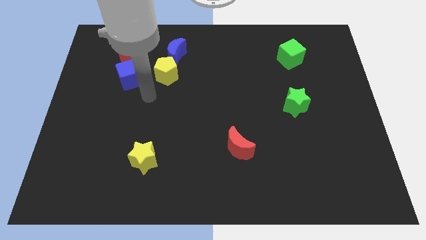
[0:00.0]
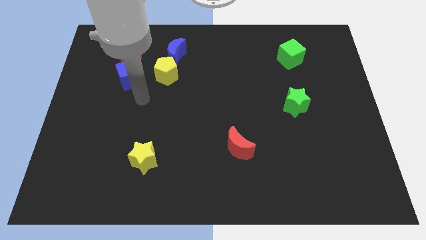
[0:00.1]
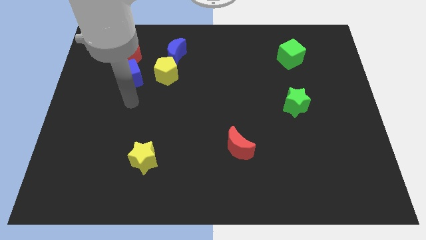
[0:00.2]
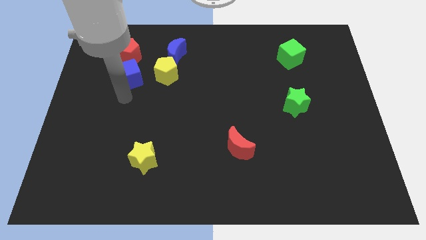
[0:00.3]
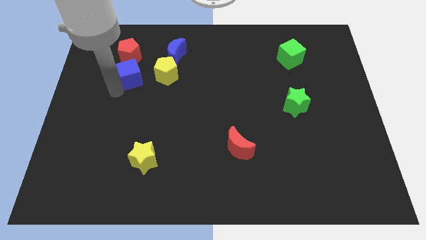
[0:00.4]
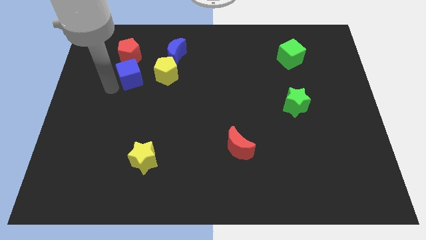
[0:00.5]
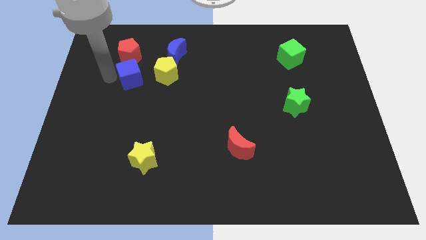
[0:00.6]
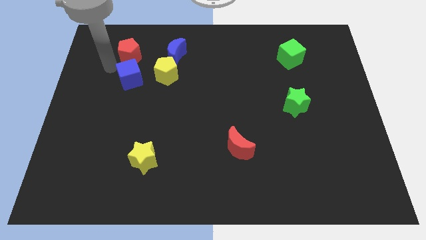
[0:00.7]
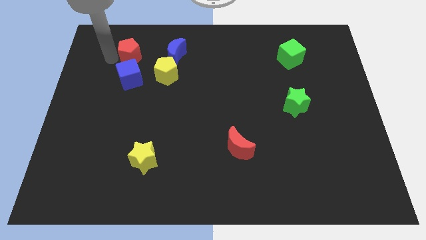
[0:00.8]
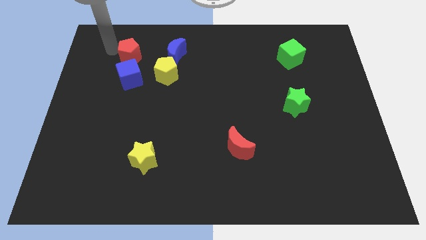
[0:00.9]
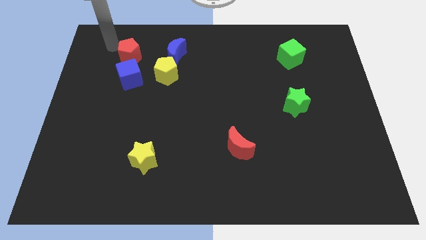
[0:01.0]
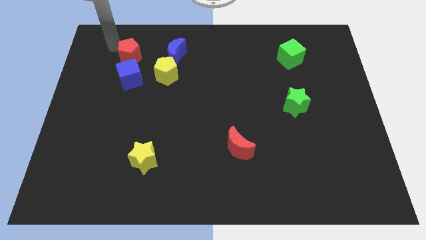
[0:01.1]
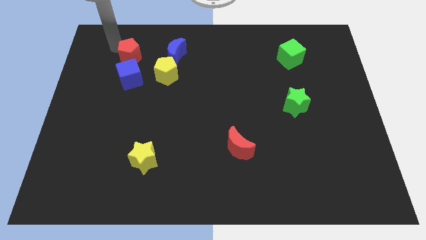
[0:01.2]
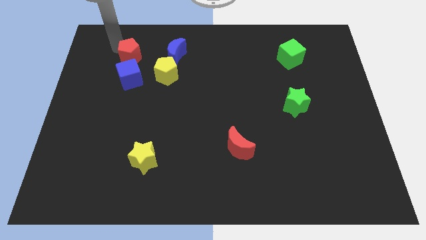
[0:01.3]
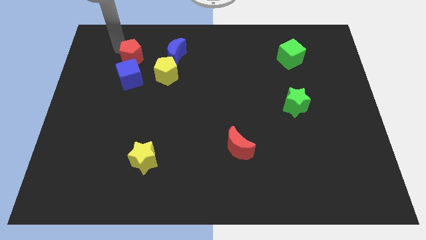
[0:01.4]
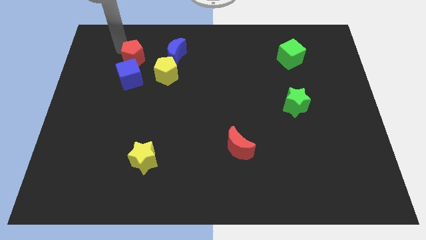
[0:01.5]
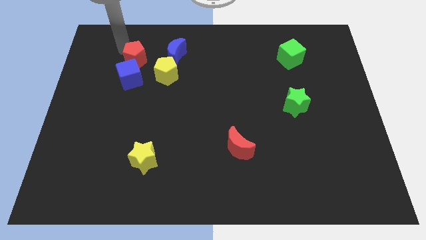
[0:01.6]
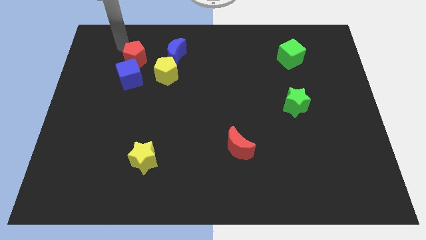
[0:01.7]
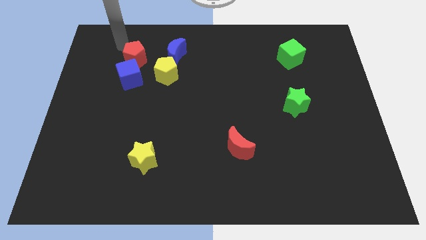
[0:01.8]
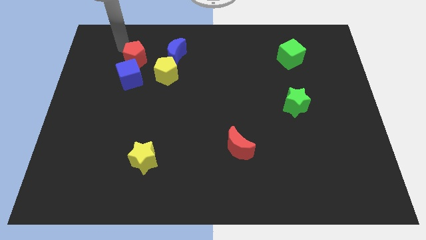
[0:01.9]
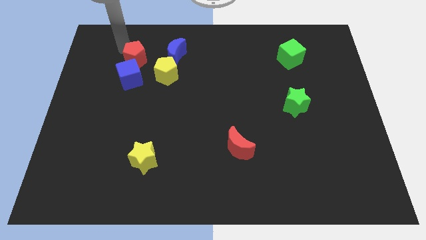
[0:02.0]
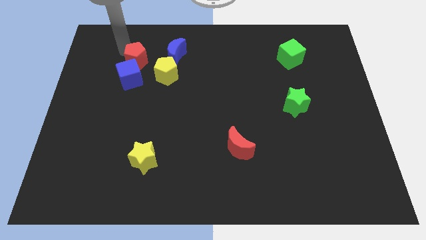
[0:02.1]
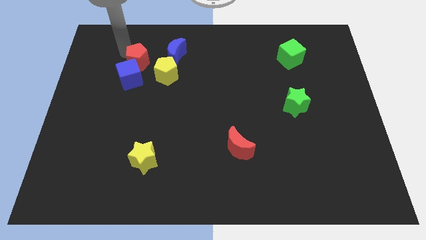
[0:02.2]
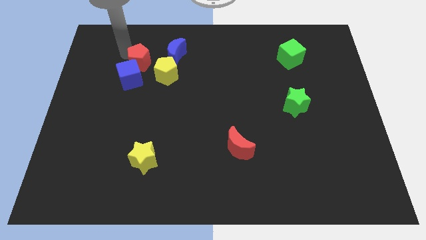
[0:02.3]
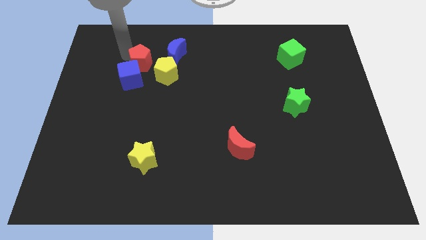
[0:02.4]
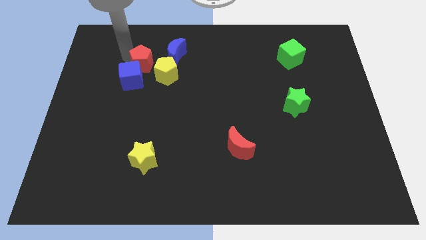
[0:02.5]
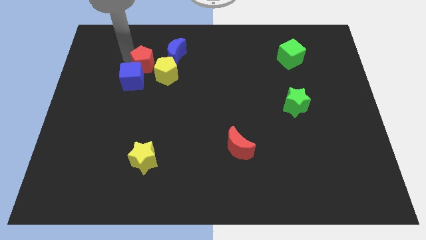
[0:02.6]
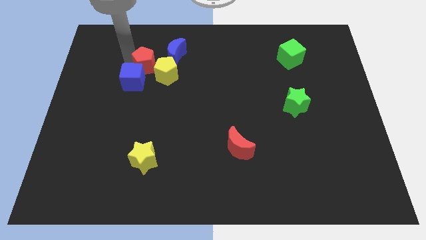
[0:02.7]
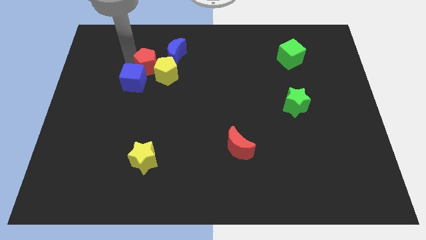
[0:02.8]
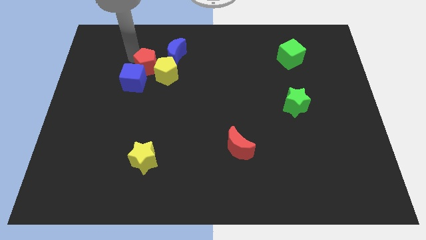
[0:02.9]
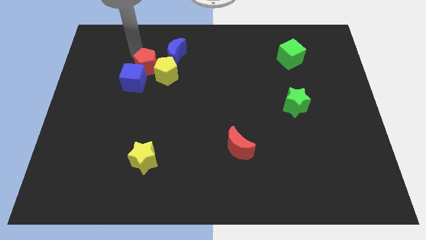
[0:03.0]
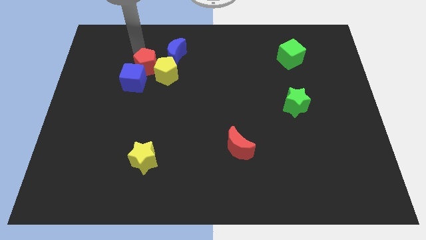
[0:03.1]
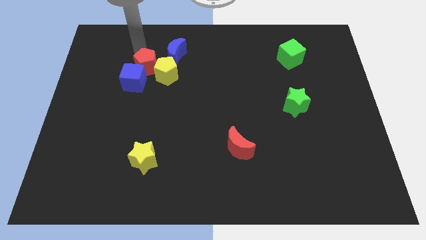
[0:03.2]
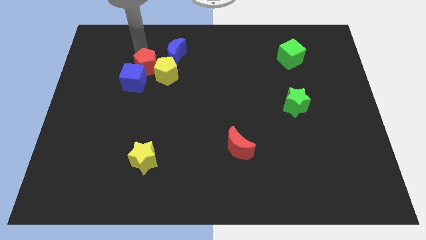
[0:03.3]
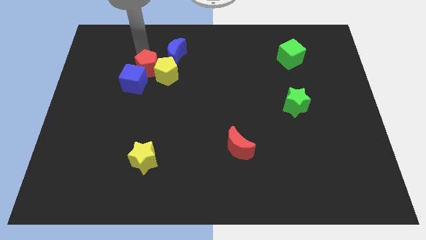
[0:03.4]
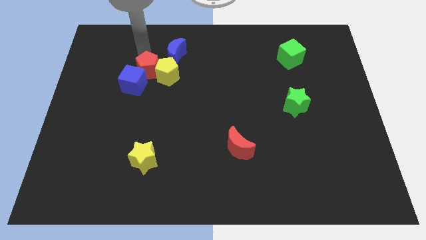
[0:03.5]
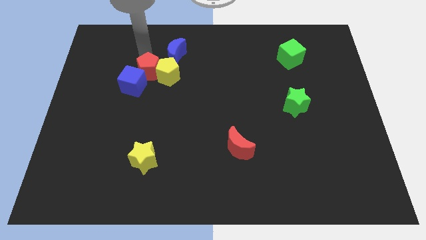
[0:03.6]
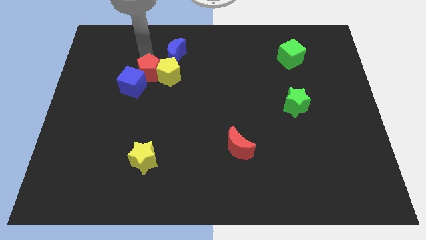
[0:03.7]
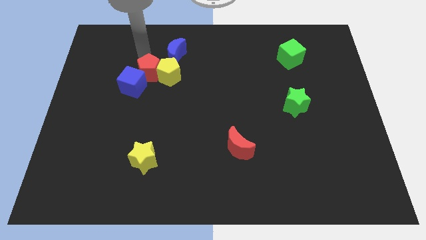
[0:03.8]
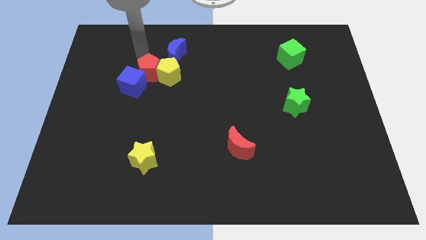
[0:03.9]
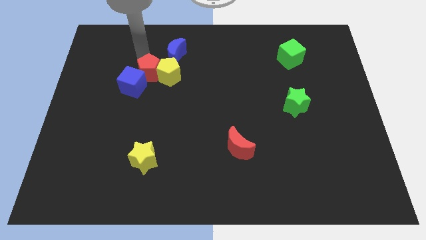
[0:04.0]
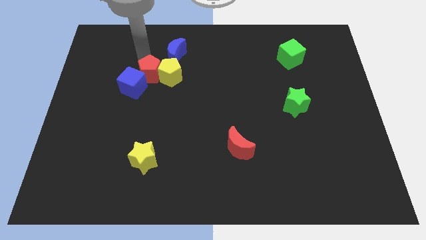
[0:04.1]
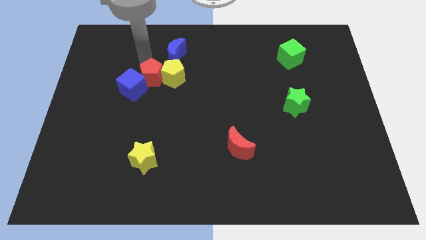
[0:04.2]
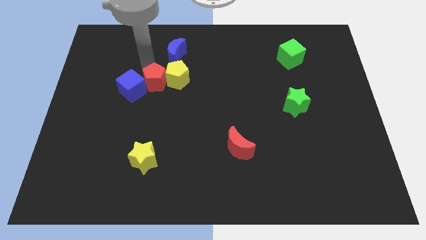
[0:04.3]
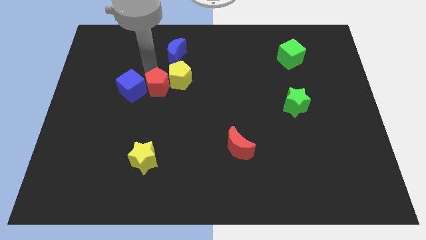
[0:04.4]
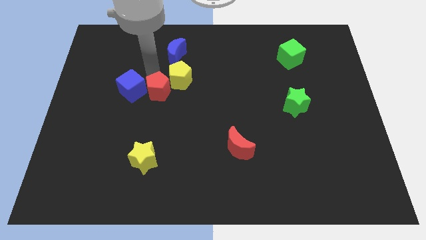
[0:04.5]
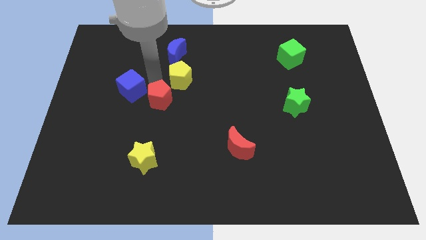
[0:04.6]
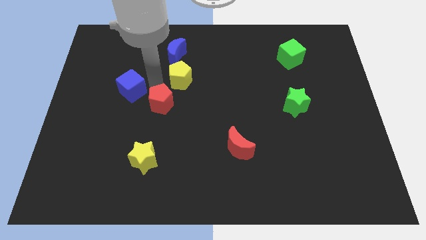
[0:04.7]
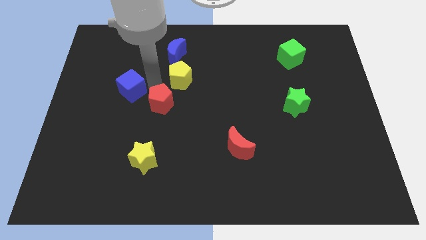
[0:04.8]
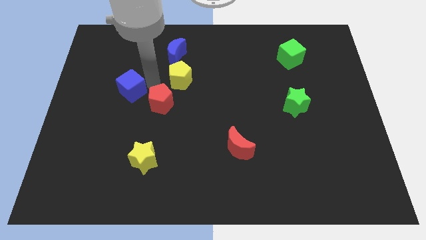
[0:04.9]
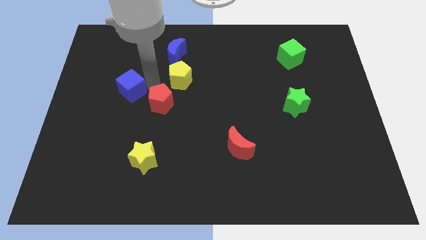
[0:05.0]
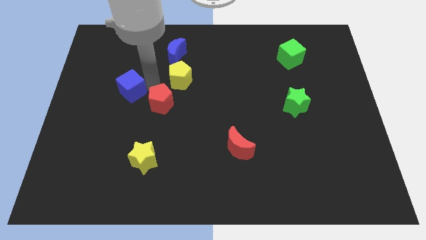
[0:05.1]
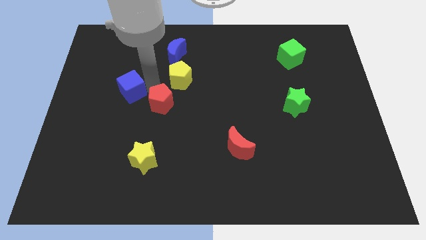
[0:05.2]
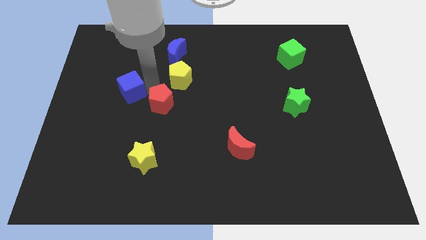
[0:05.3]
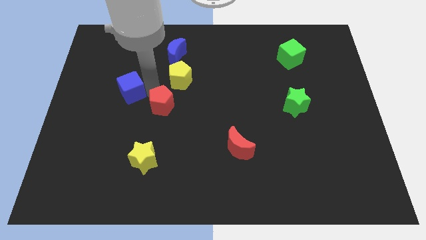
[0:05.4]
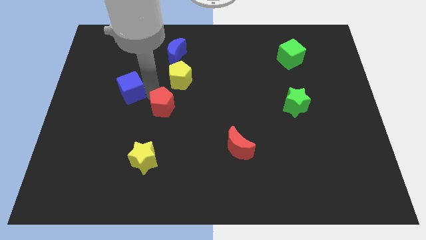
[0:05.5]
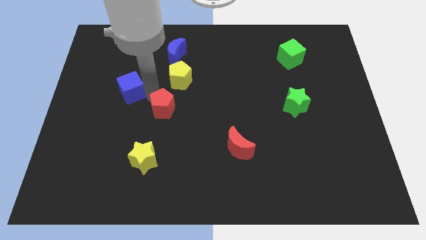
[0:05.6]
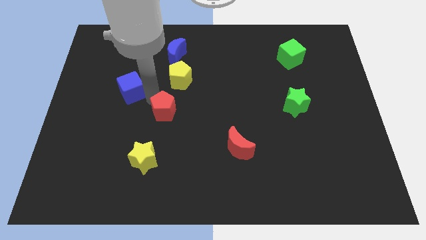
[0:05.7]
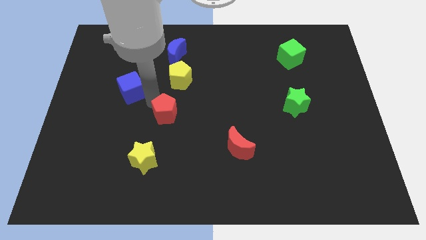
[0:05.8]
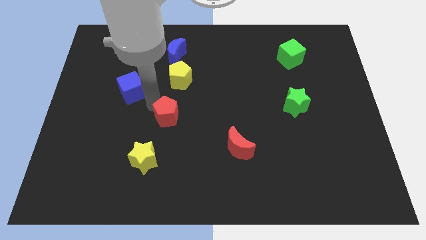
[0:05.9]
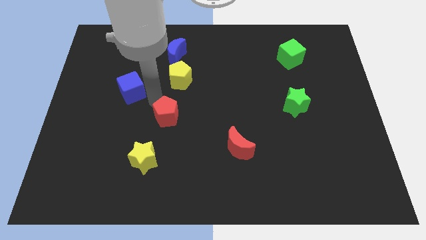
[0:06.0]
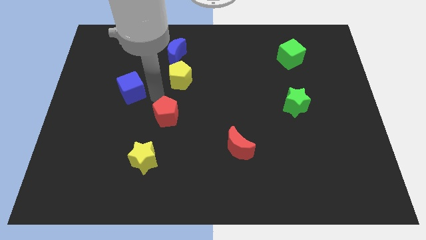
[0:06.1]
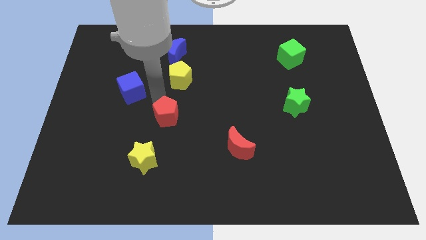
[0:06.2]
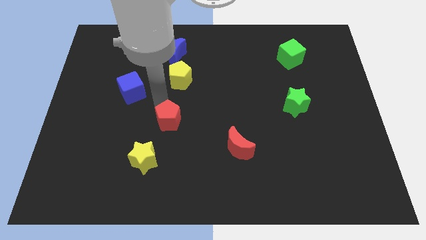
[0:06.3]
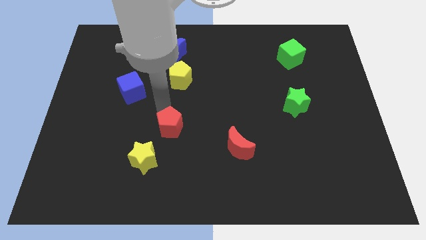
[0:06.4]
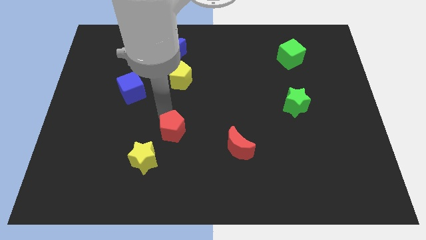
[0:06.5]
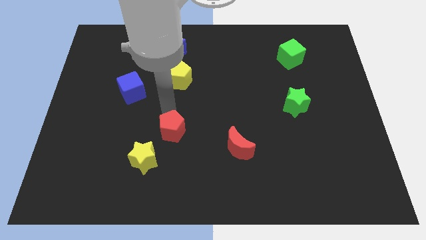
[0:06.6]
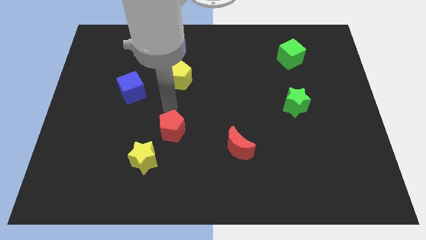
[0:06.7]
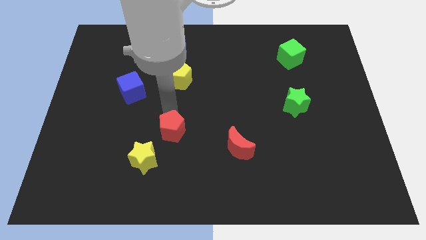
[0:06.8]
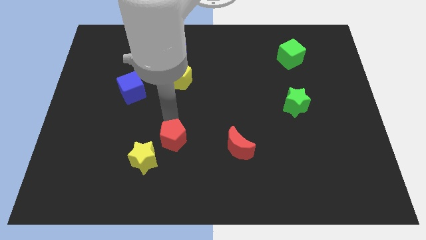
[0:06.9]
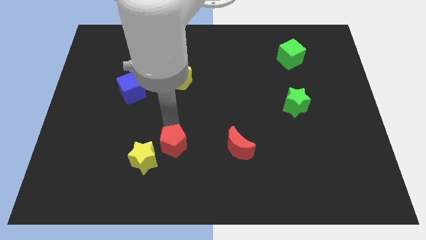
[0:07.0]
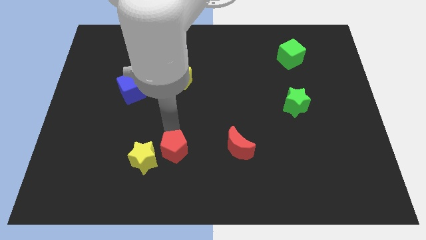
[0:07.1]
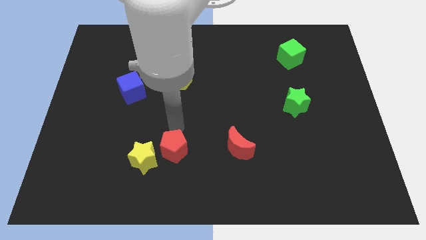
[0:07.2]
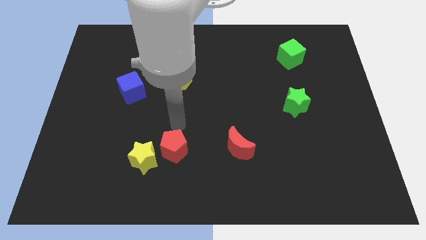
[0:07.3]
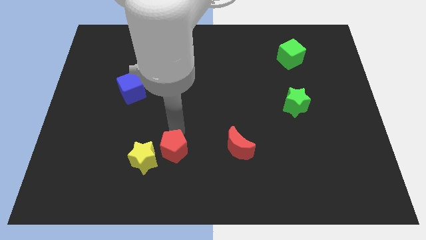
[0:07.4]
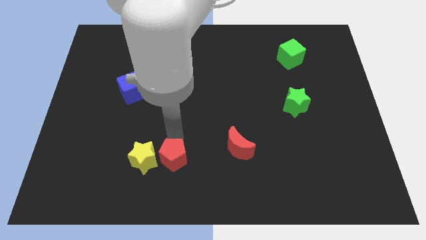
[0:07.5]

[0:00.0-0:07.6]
put the red pentagon to the bottom right side of the yellow star
